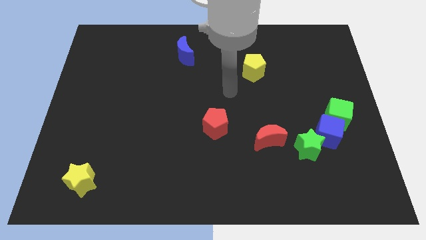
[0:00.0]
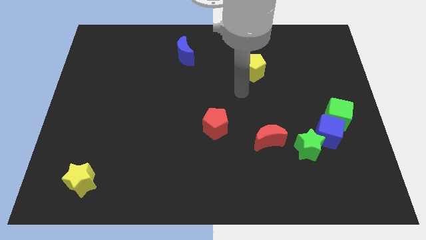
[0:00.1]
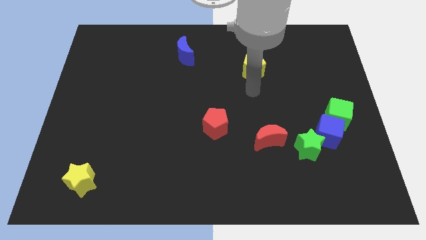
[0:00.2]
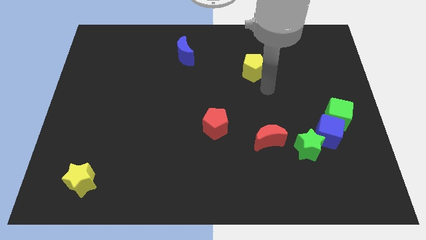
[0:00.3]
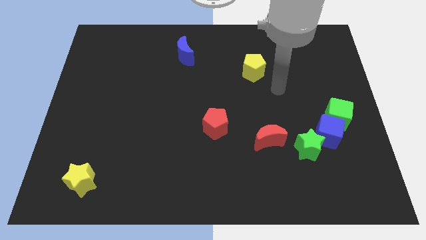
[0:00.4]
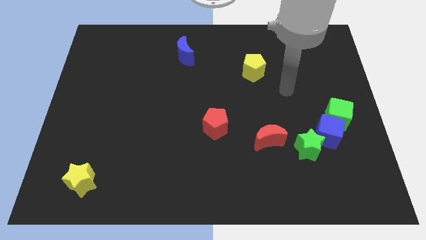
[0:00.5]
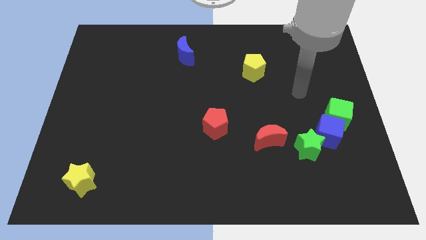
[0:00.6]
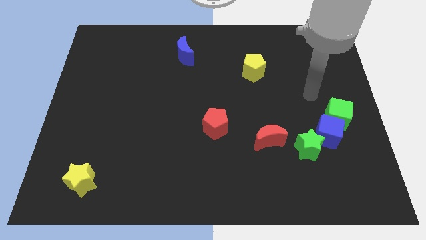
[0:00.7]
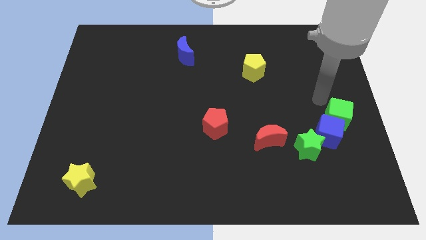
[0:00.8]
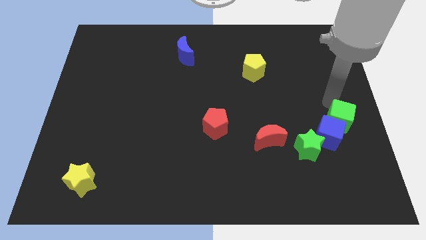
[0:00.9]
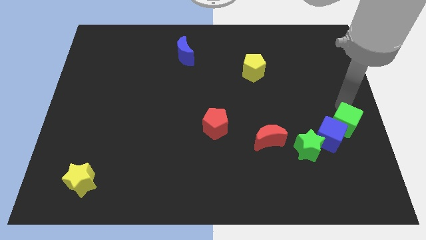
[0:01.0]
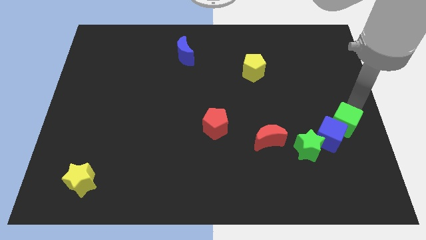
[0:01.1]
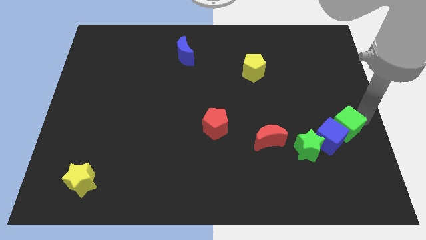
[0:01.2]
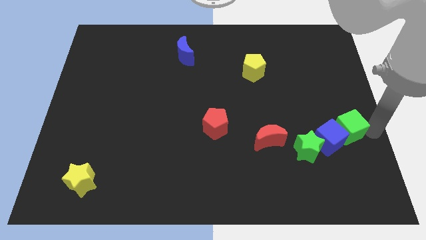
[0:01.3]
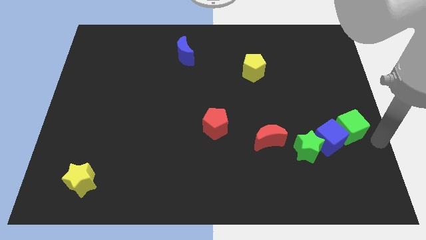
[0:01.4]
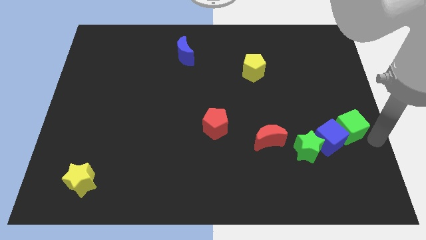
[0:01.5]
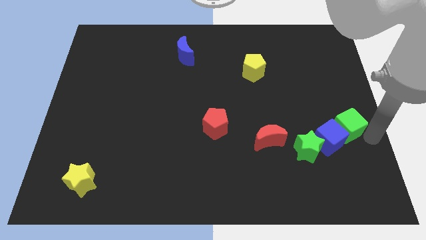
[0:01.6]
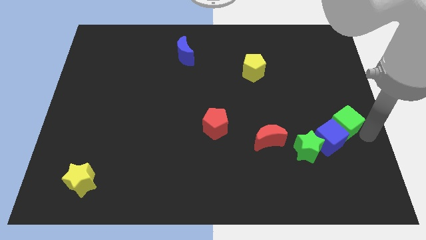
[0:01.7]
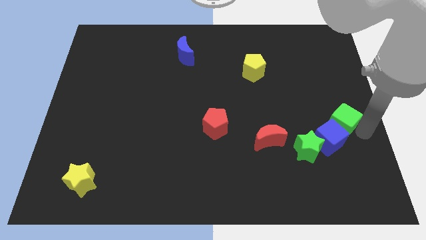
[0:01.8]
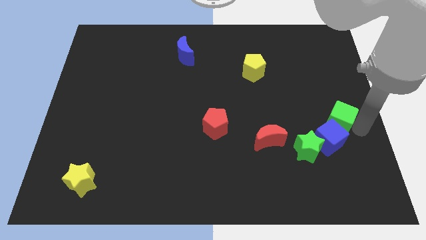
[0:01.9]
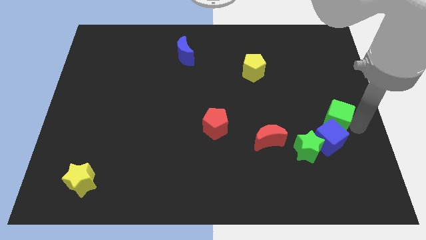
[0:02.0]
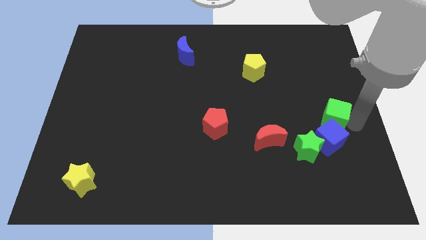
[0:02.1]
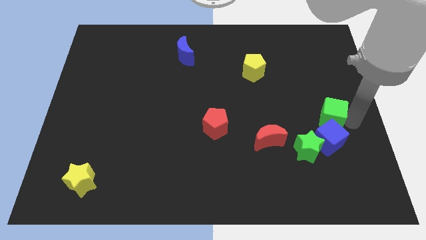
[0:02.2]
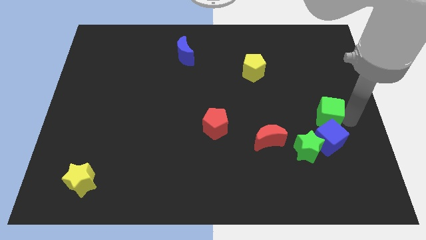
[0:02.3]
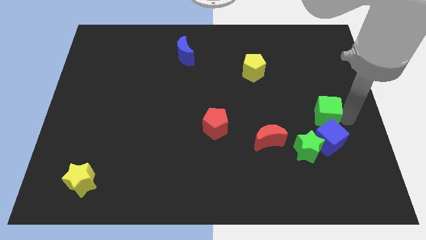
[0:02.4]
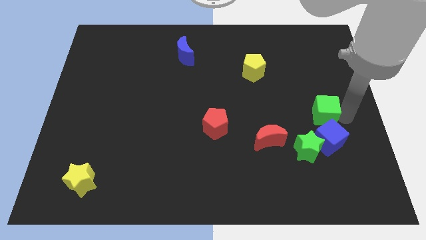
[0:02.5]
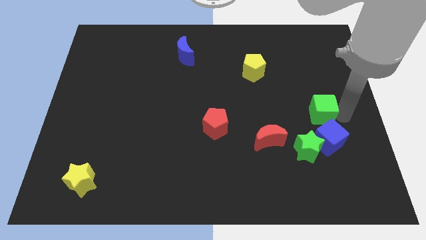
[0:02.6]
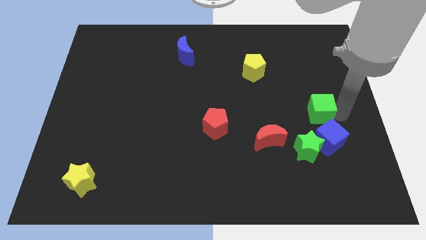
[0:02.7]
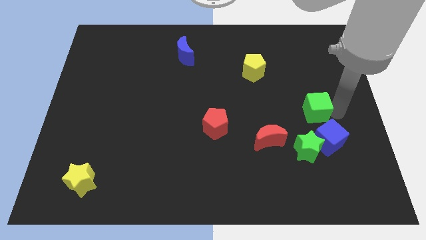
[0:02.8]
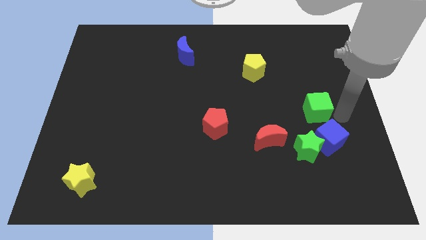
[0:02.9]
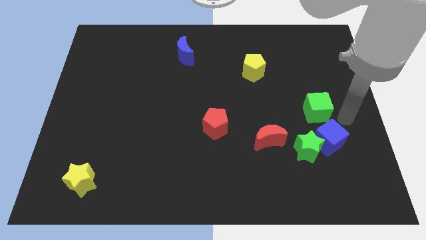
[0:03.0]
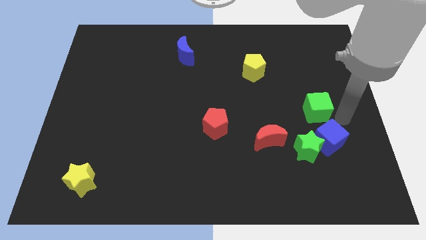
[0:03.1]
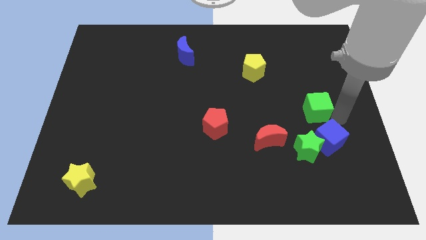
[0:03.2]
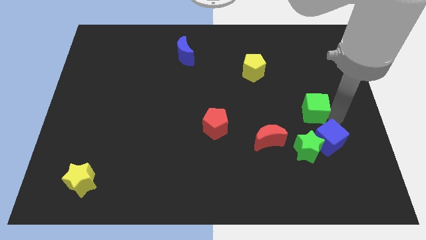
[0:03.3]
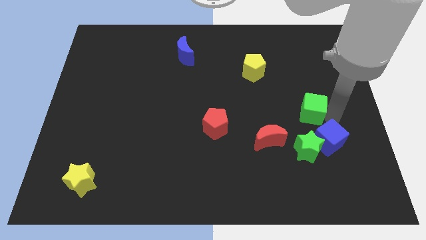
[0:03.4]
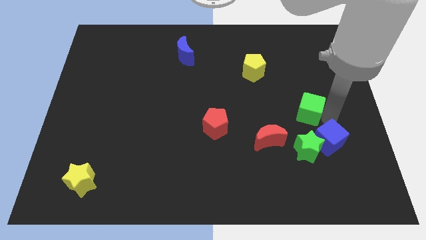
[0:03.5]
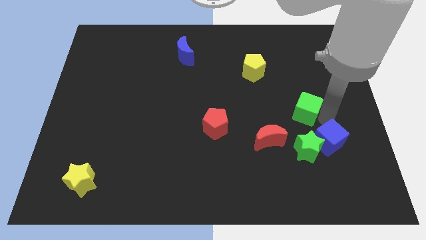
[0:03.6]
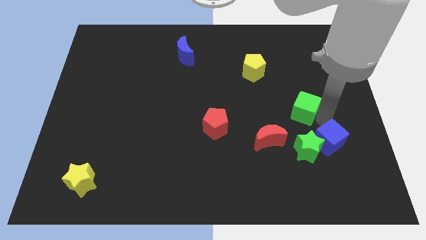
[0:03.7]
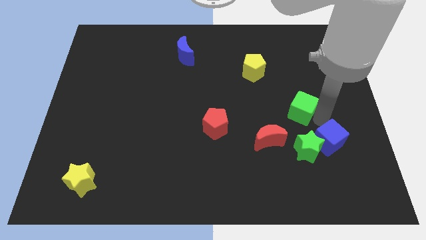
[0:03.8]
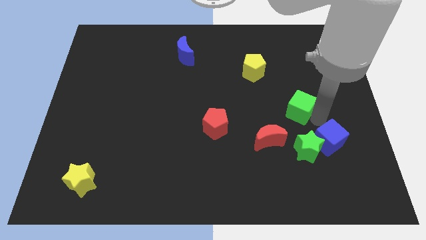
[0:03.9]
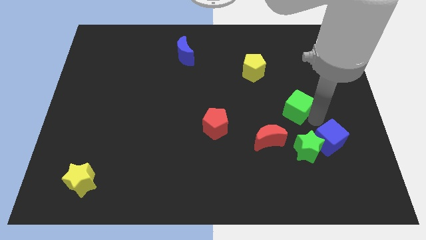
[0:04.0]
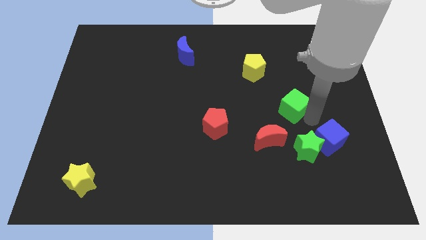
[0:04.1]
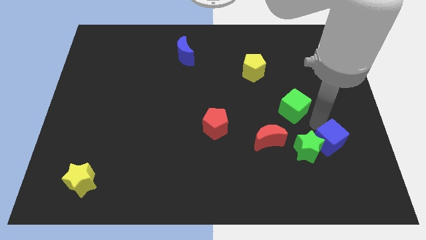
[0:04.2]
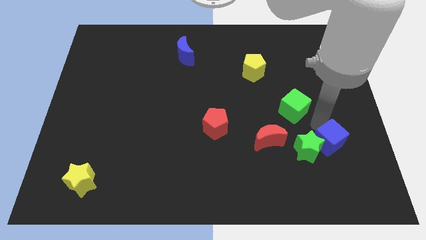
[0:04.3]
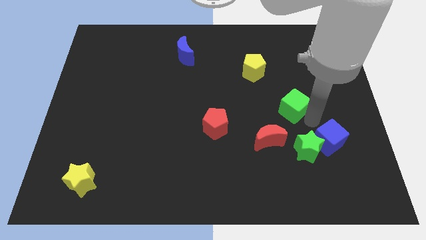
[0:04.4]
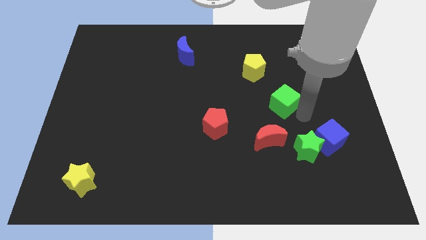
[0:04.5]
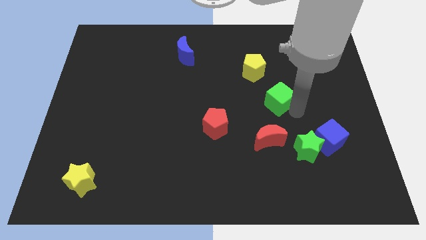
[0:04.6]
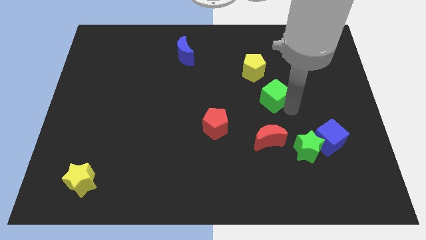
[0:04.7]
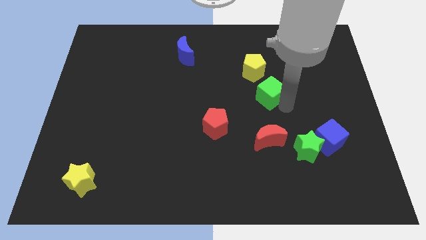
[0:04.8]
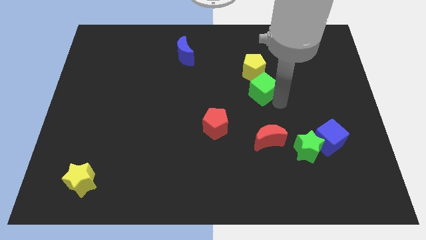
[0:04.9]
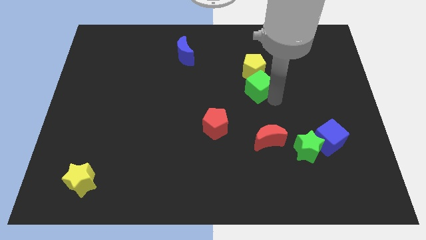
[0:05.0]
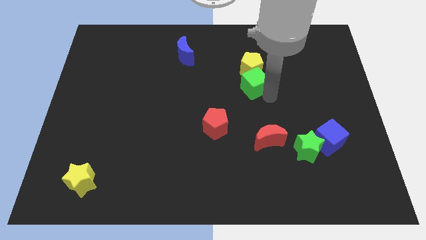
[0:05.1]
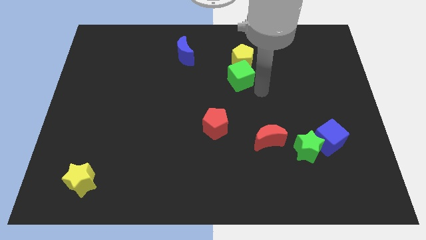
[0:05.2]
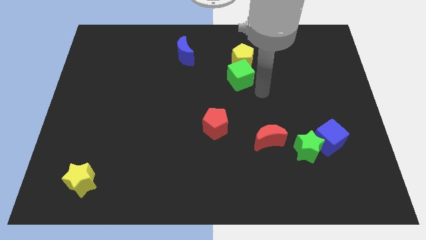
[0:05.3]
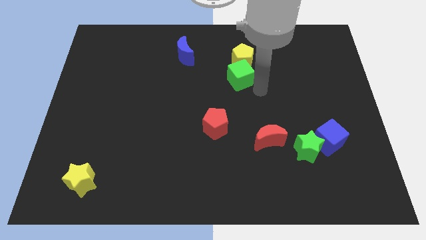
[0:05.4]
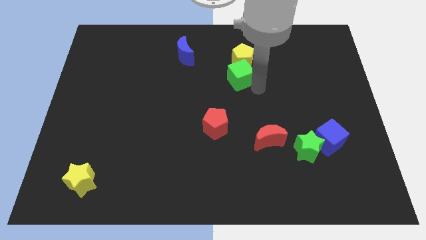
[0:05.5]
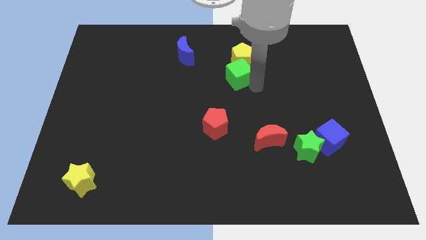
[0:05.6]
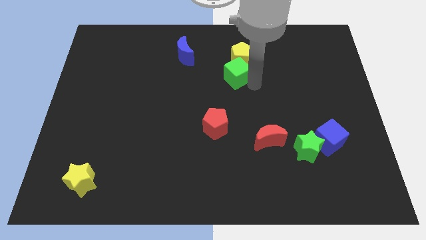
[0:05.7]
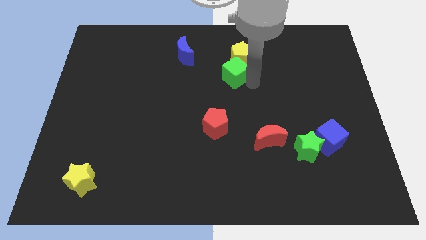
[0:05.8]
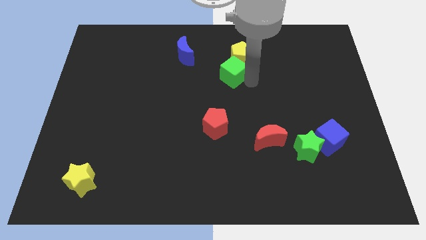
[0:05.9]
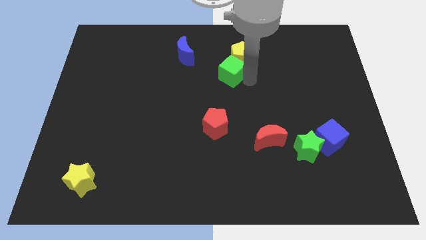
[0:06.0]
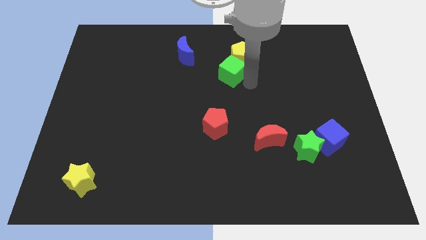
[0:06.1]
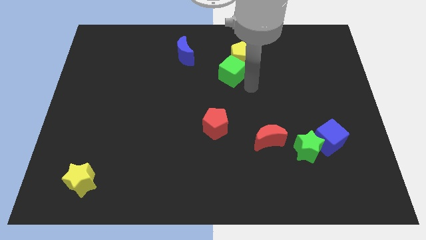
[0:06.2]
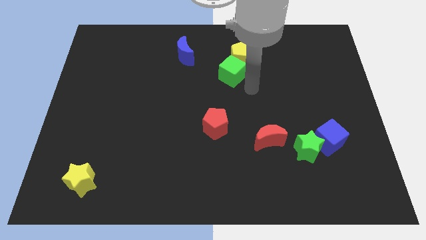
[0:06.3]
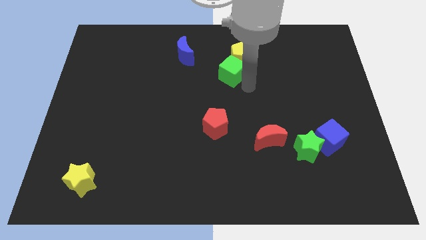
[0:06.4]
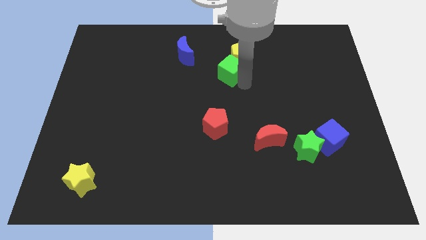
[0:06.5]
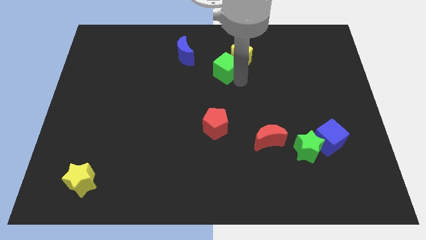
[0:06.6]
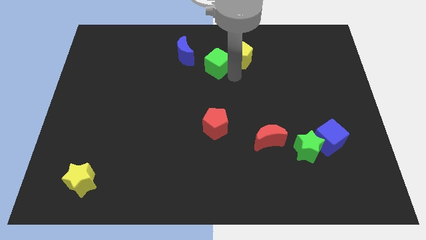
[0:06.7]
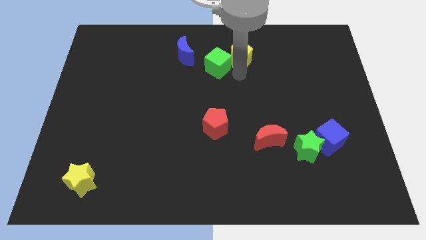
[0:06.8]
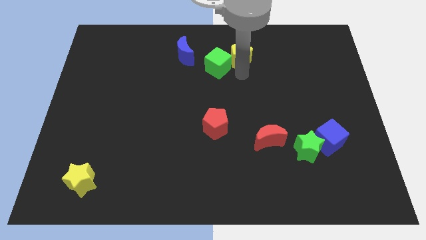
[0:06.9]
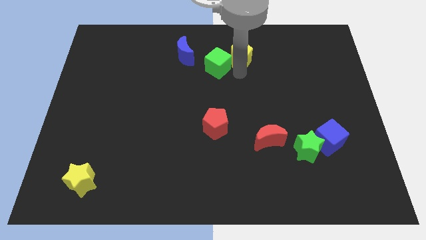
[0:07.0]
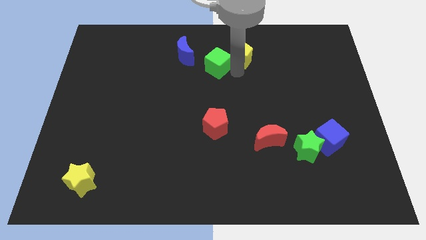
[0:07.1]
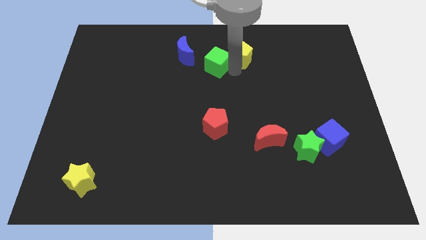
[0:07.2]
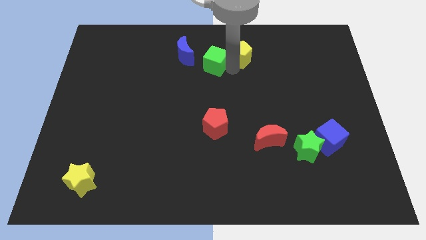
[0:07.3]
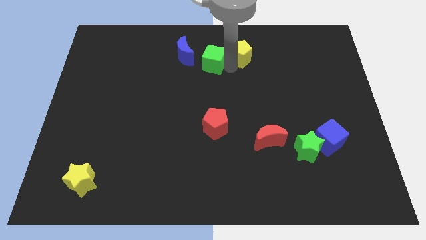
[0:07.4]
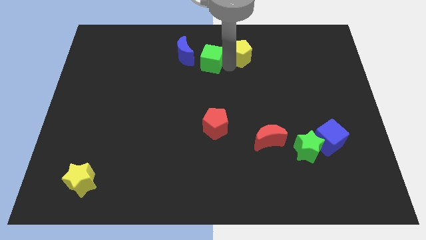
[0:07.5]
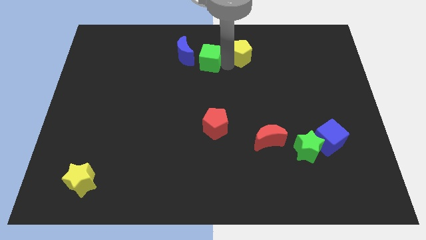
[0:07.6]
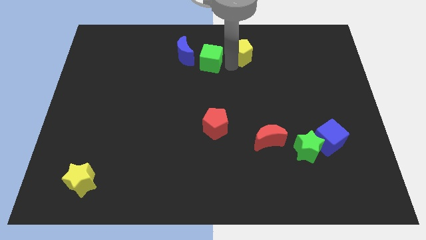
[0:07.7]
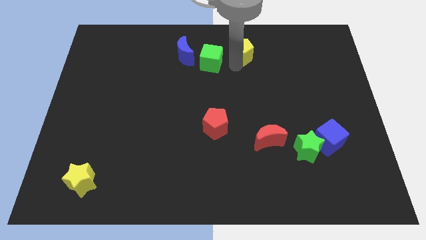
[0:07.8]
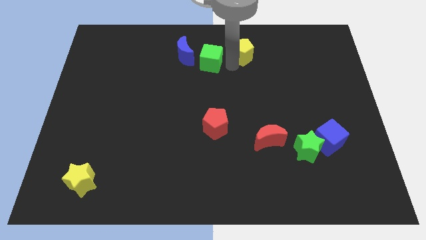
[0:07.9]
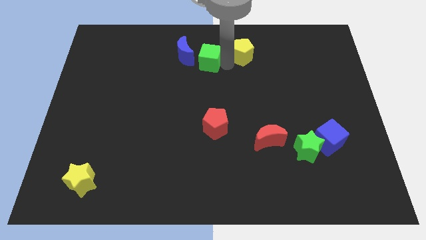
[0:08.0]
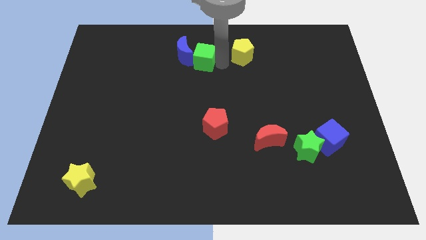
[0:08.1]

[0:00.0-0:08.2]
push the green cube next to the blue moon
